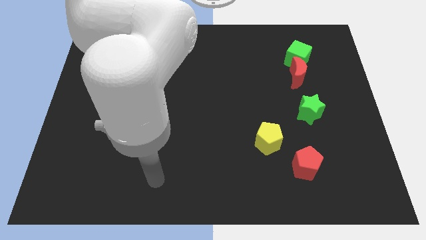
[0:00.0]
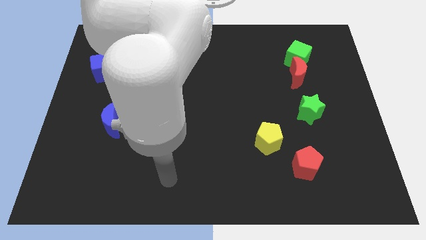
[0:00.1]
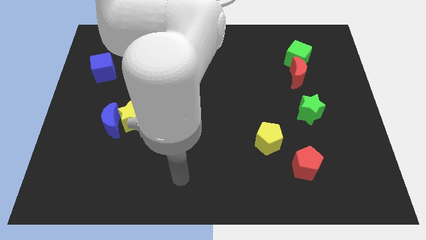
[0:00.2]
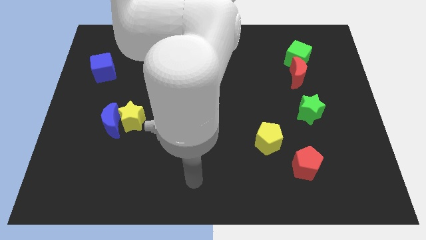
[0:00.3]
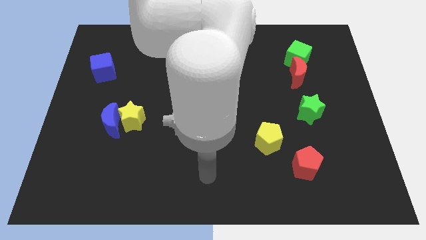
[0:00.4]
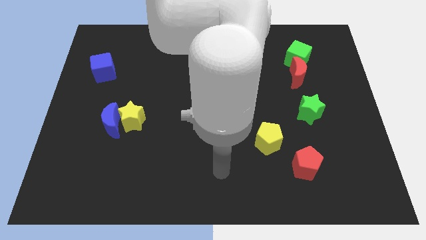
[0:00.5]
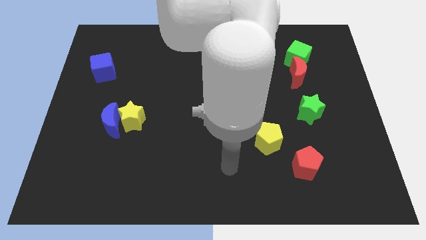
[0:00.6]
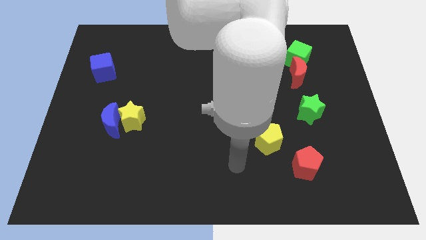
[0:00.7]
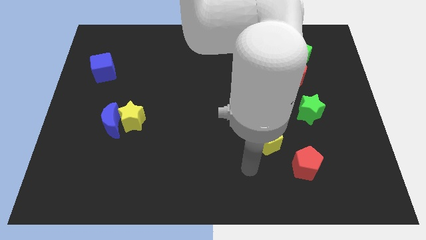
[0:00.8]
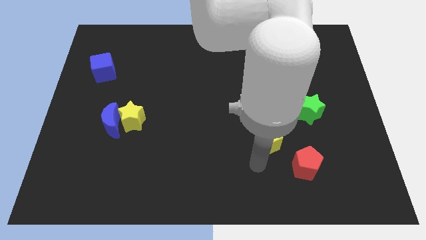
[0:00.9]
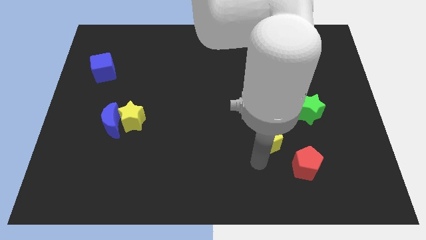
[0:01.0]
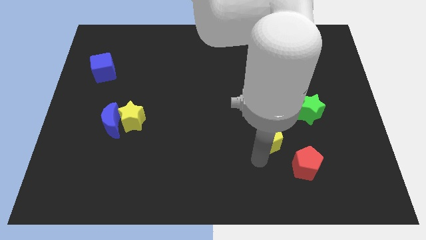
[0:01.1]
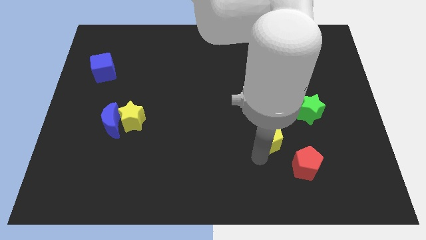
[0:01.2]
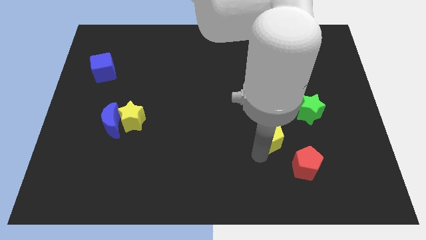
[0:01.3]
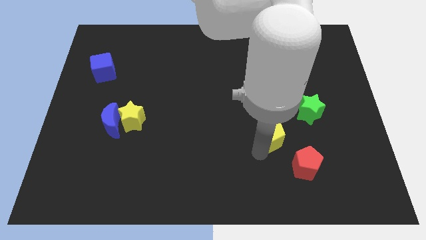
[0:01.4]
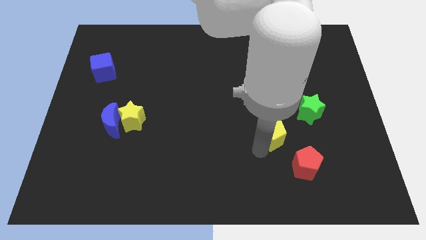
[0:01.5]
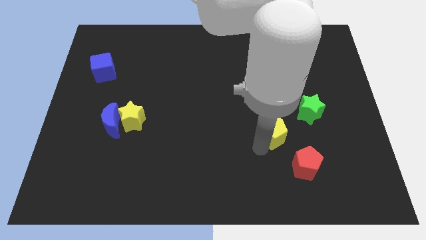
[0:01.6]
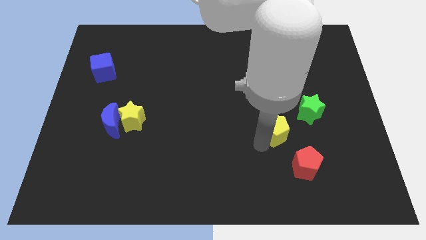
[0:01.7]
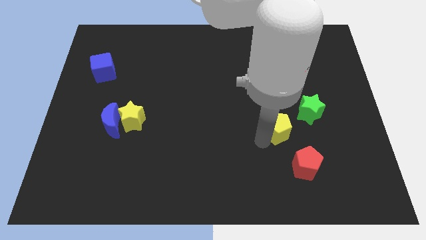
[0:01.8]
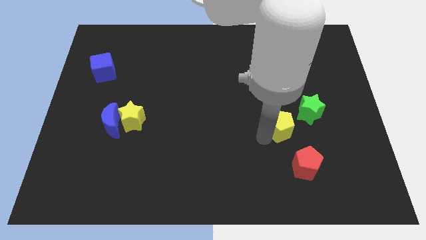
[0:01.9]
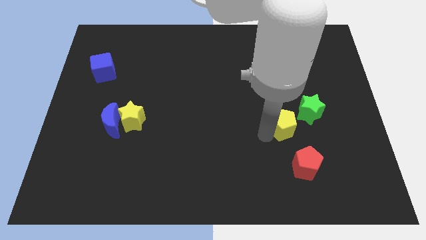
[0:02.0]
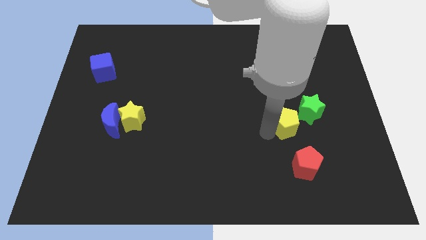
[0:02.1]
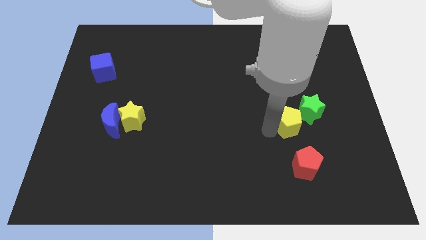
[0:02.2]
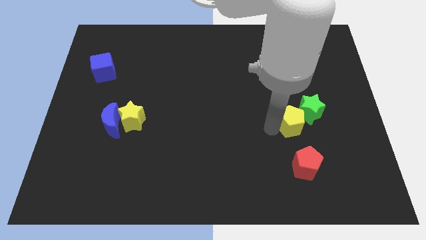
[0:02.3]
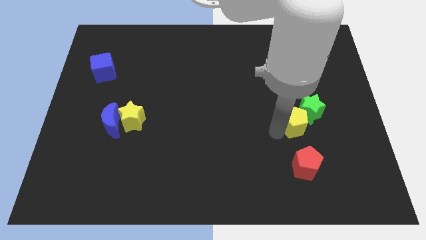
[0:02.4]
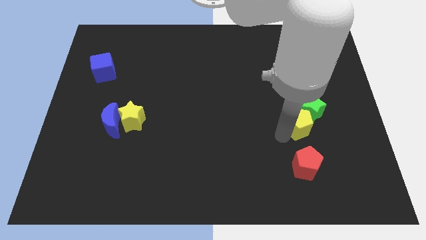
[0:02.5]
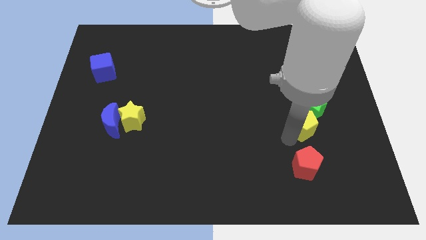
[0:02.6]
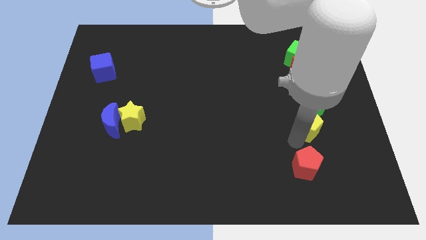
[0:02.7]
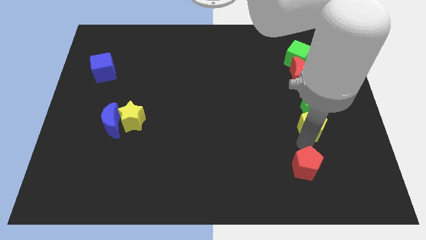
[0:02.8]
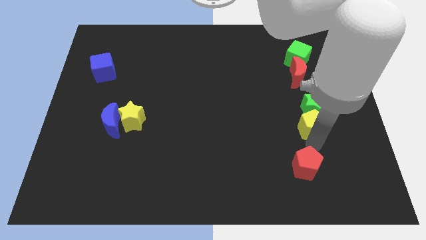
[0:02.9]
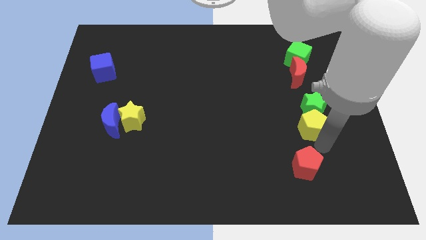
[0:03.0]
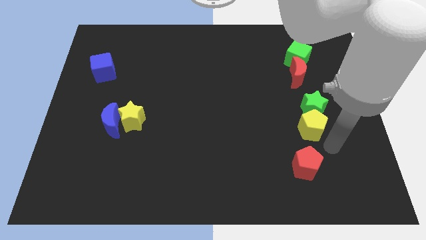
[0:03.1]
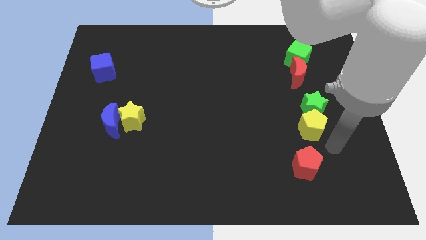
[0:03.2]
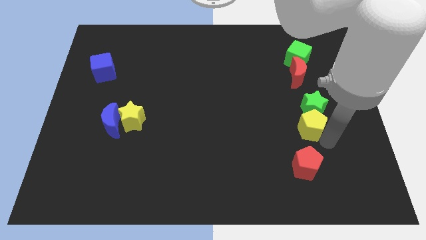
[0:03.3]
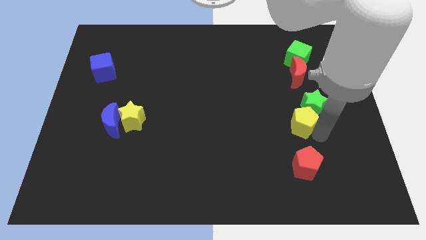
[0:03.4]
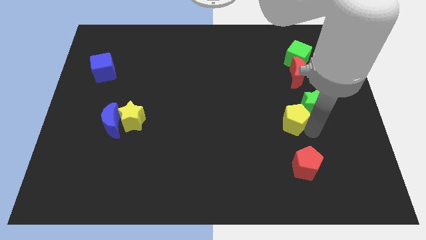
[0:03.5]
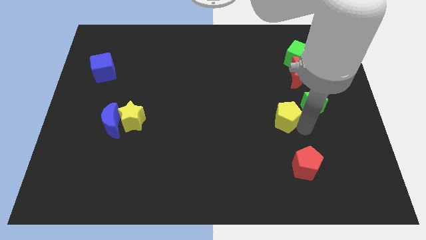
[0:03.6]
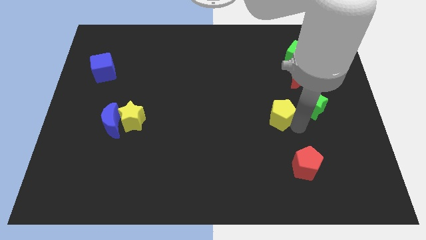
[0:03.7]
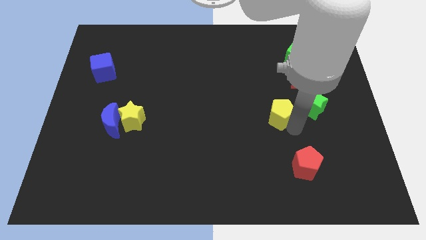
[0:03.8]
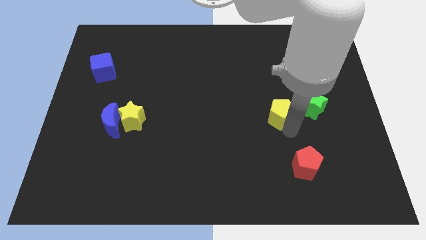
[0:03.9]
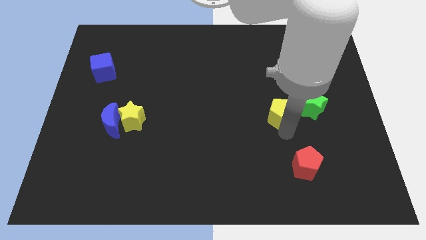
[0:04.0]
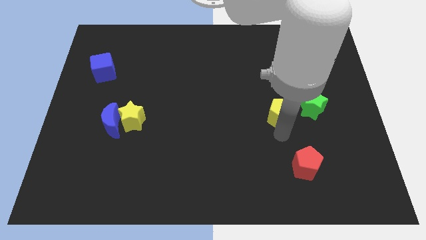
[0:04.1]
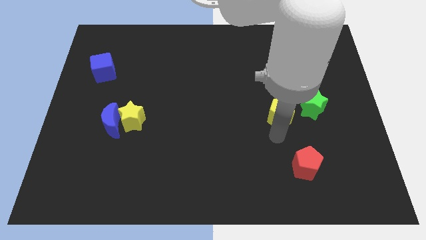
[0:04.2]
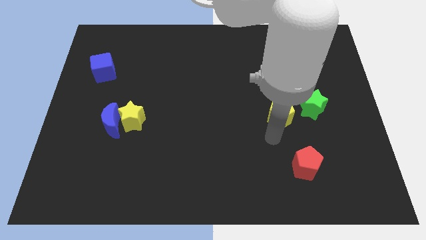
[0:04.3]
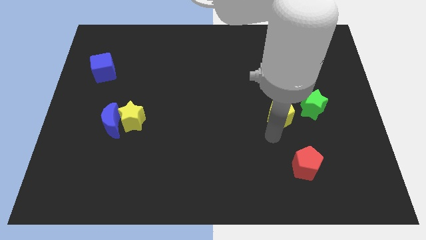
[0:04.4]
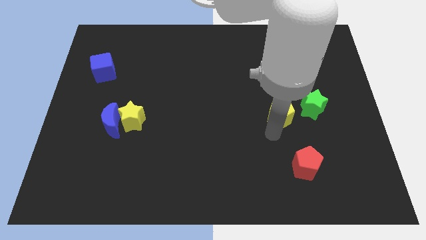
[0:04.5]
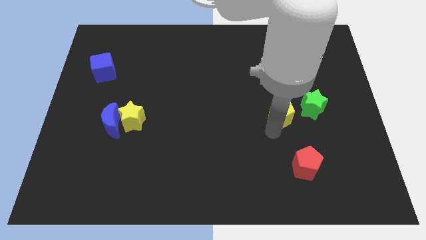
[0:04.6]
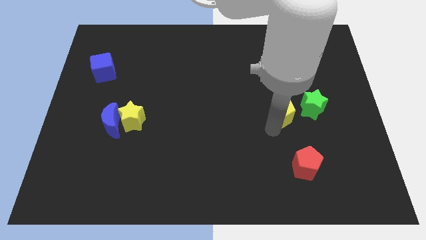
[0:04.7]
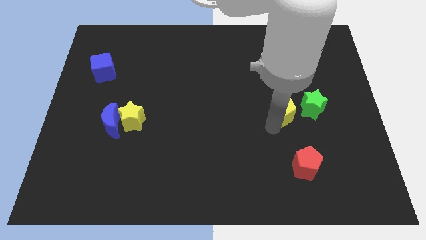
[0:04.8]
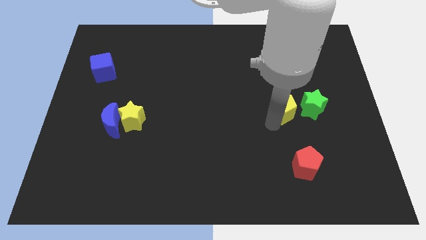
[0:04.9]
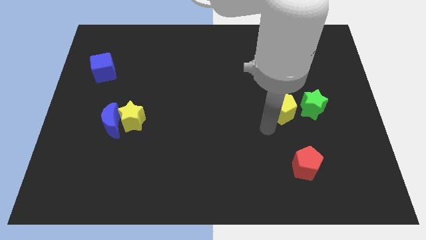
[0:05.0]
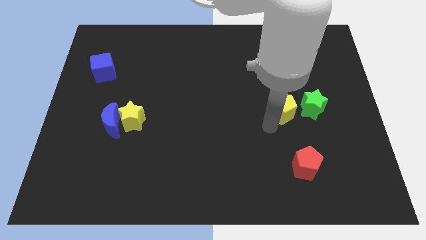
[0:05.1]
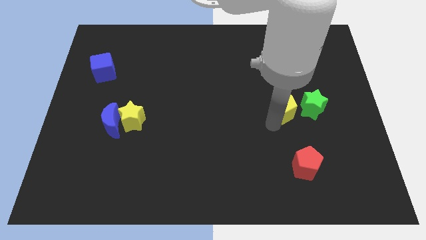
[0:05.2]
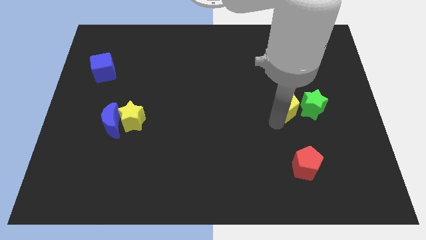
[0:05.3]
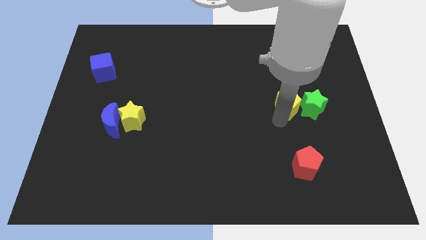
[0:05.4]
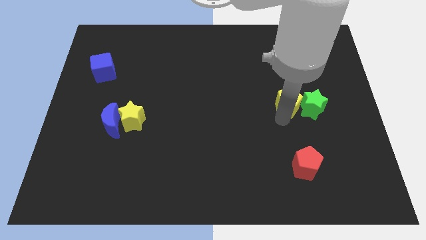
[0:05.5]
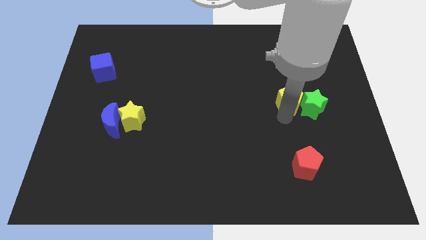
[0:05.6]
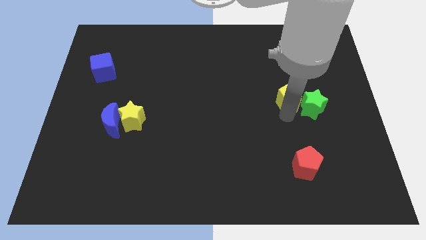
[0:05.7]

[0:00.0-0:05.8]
push the yellow pentagon to the bottom side of the green cube

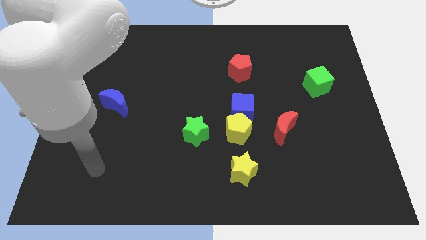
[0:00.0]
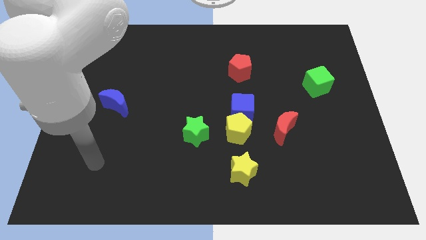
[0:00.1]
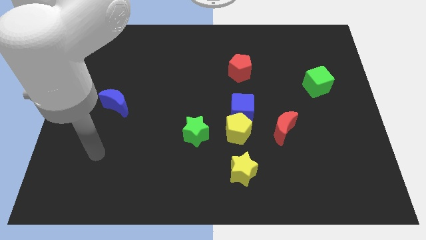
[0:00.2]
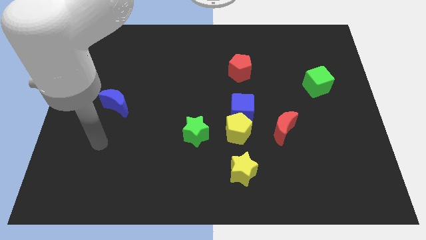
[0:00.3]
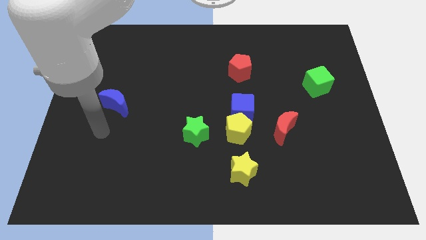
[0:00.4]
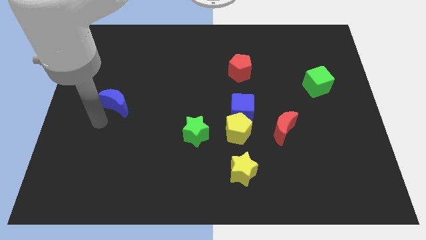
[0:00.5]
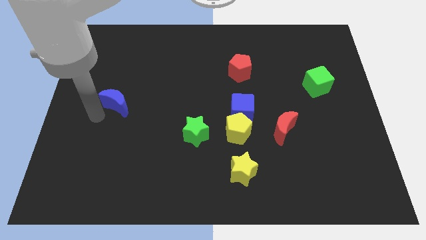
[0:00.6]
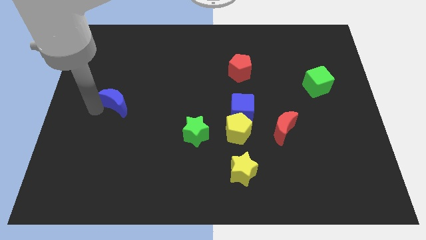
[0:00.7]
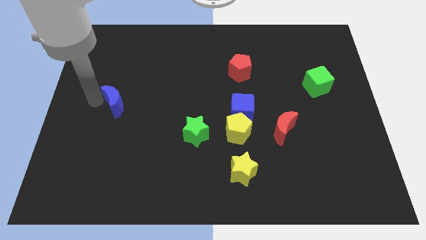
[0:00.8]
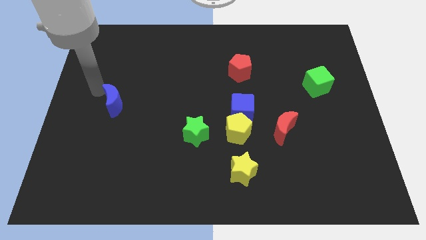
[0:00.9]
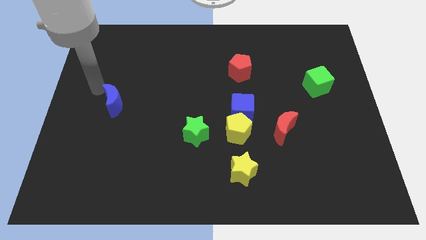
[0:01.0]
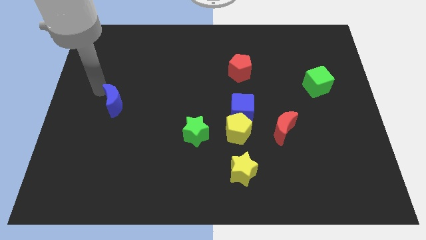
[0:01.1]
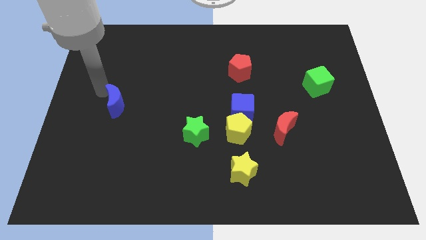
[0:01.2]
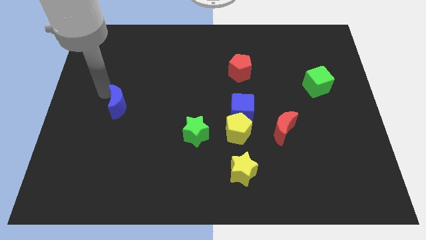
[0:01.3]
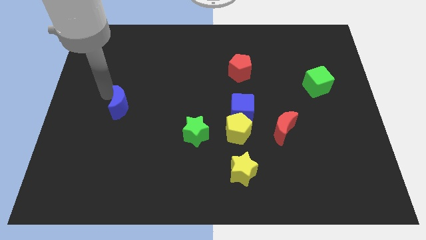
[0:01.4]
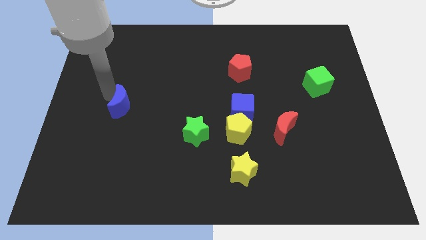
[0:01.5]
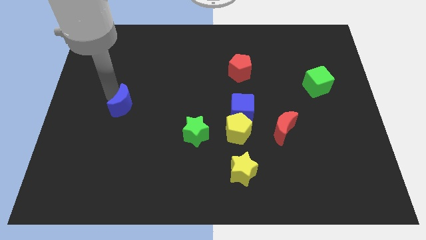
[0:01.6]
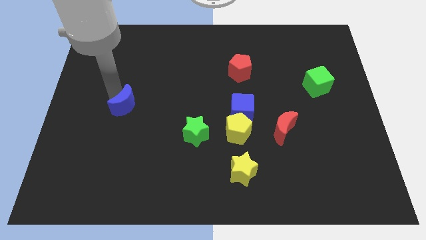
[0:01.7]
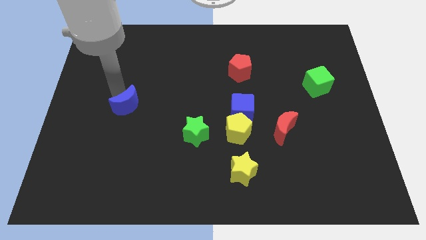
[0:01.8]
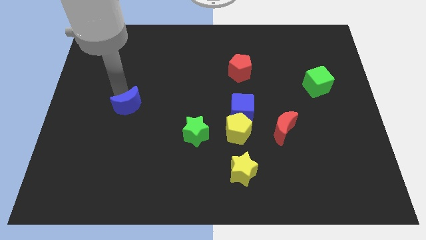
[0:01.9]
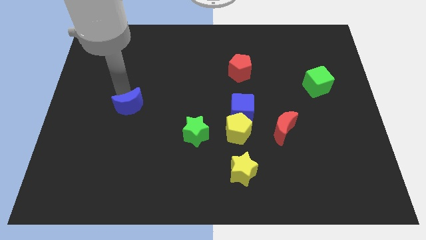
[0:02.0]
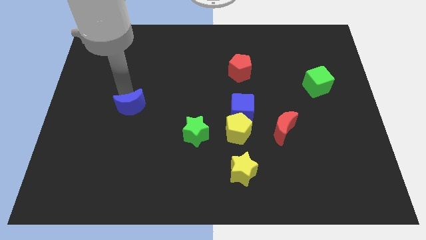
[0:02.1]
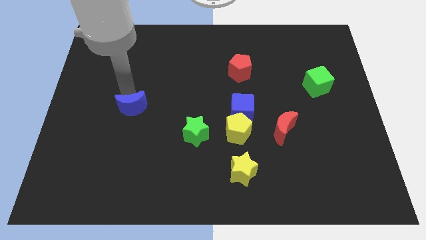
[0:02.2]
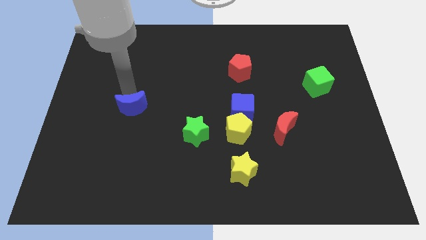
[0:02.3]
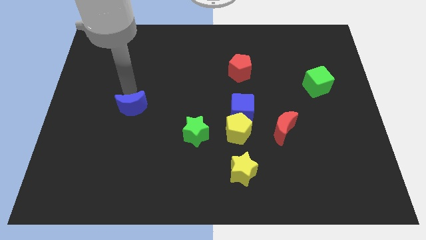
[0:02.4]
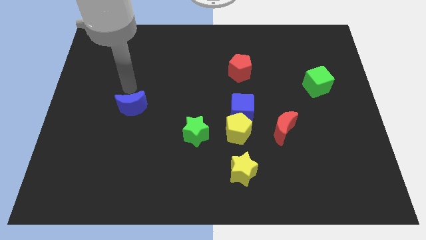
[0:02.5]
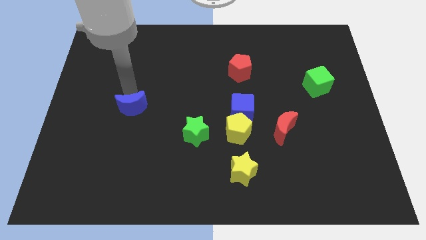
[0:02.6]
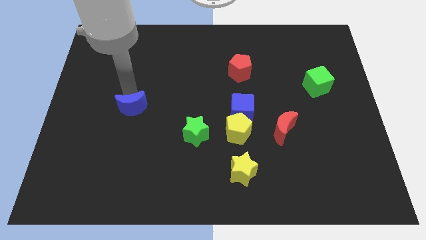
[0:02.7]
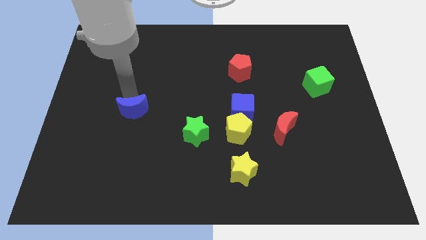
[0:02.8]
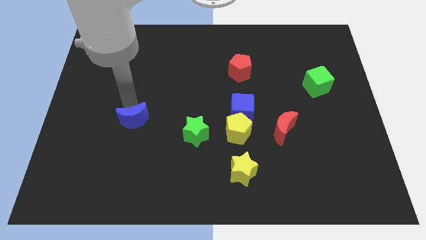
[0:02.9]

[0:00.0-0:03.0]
push the blue moon left of the green star
